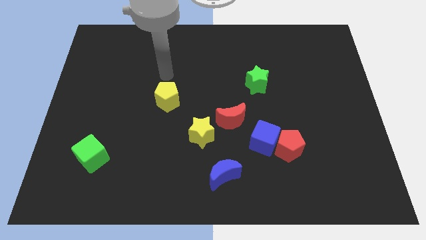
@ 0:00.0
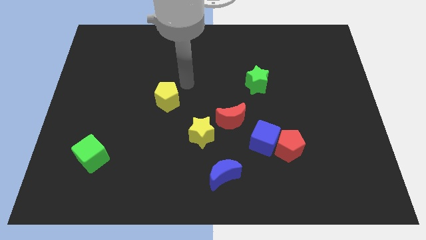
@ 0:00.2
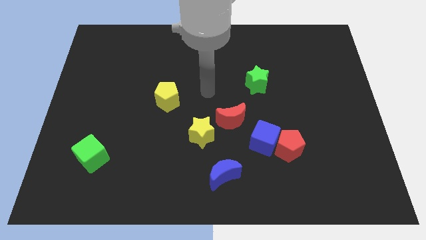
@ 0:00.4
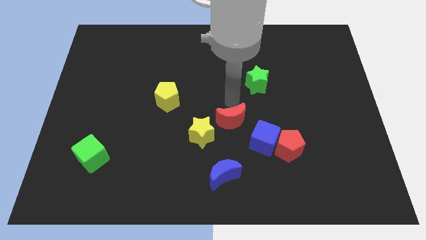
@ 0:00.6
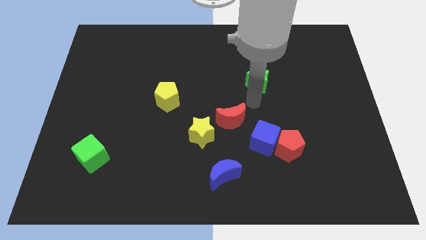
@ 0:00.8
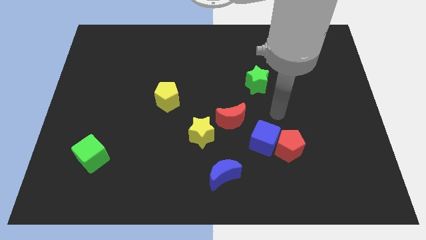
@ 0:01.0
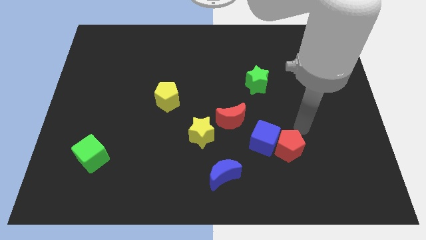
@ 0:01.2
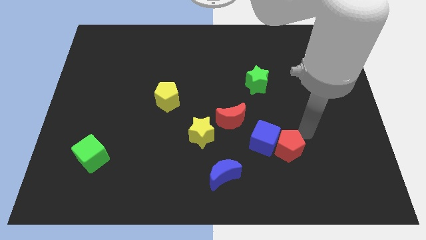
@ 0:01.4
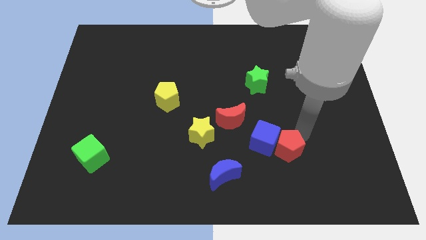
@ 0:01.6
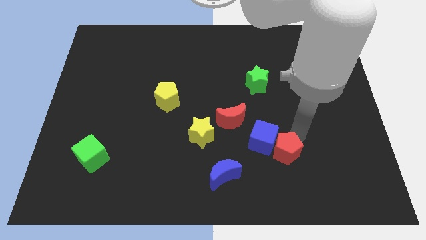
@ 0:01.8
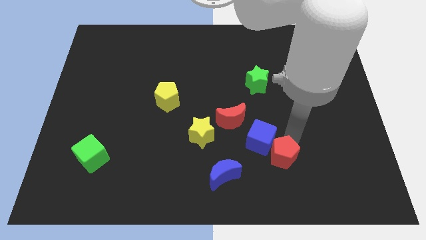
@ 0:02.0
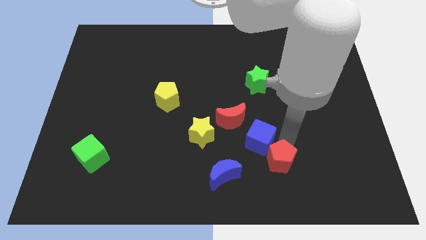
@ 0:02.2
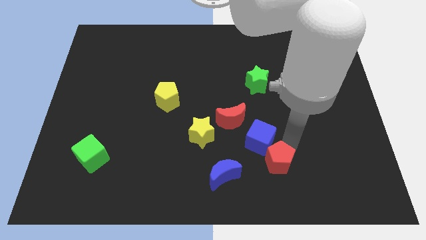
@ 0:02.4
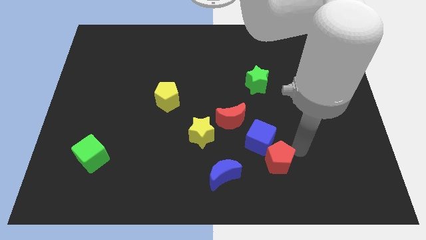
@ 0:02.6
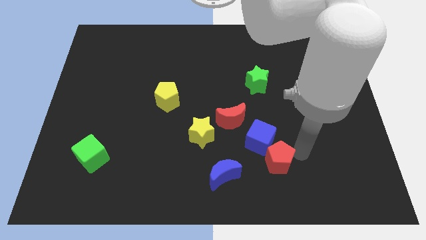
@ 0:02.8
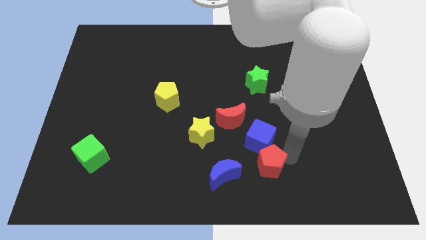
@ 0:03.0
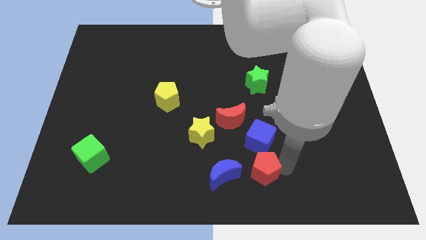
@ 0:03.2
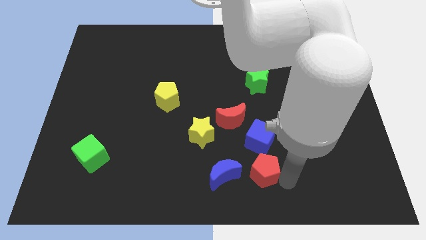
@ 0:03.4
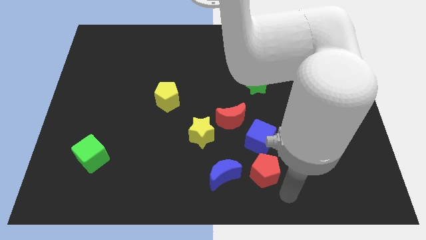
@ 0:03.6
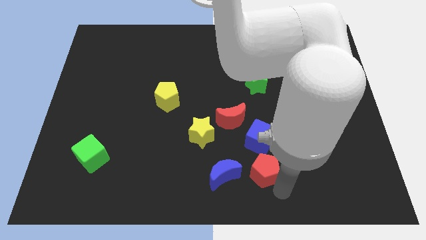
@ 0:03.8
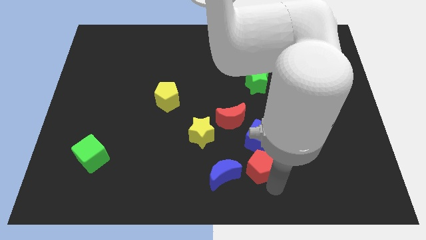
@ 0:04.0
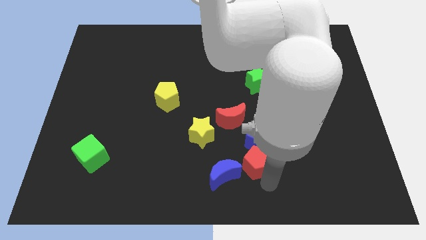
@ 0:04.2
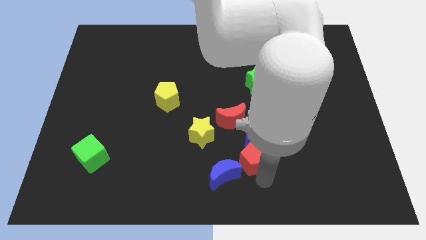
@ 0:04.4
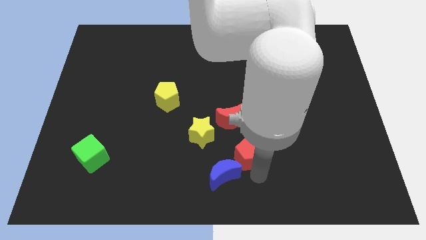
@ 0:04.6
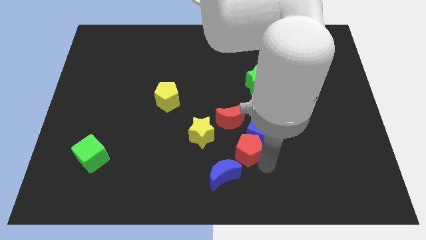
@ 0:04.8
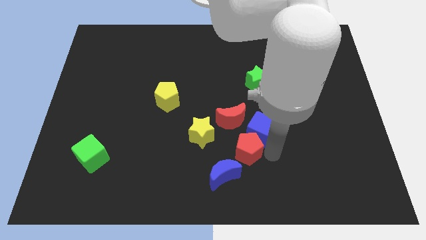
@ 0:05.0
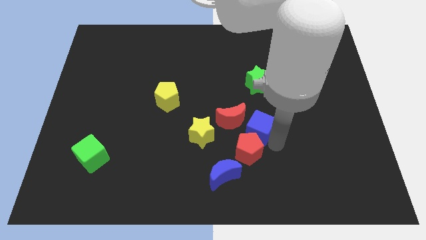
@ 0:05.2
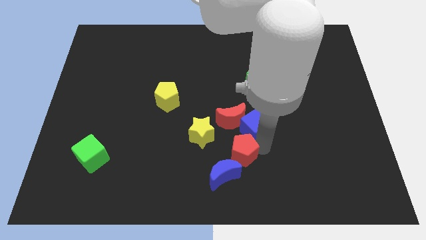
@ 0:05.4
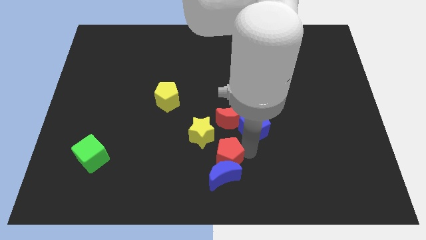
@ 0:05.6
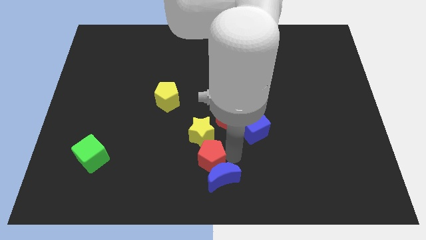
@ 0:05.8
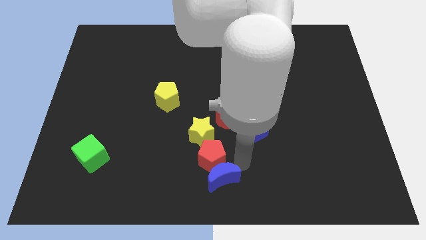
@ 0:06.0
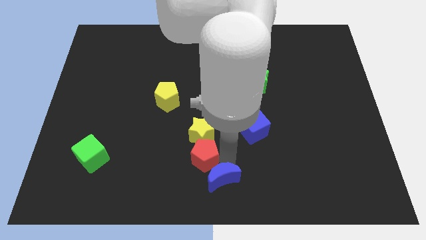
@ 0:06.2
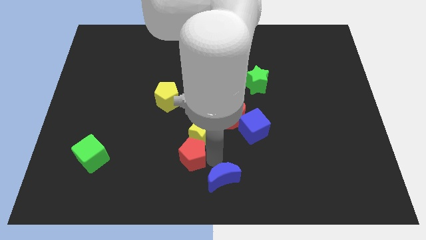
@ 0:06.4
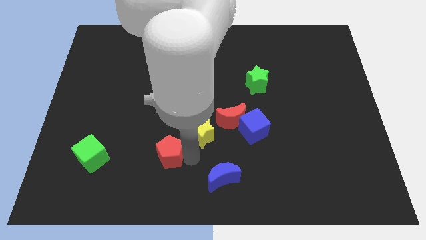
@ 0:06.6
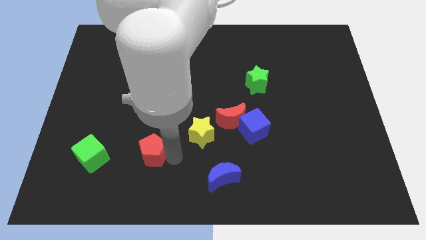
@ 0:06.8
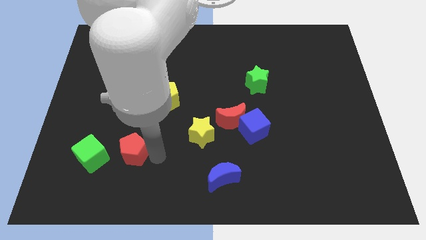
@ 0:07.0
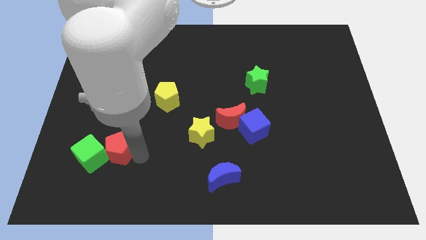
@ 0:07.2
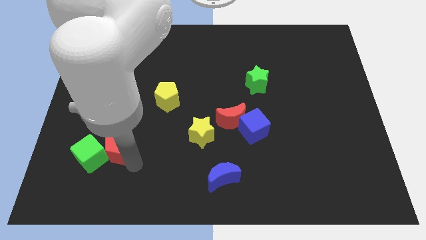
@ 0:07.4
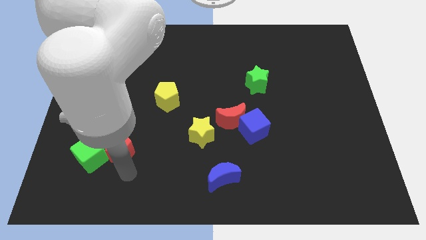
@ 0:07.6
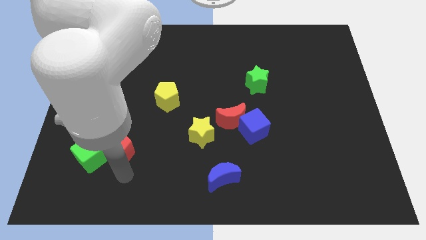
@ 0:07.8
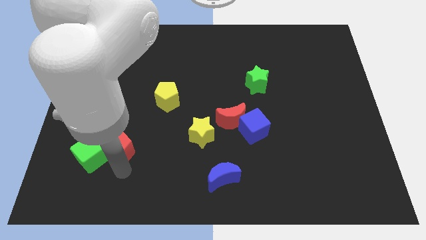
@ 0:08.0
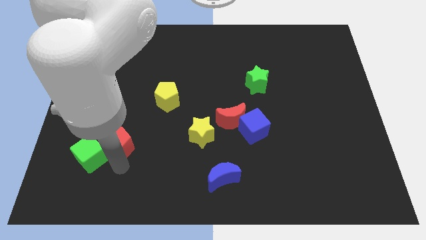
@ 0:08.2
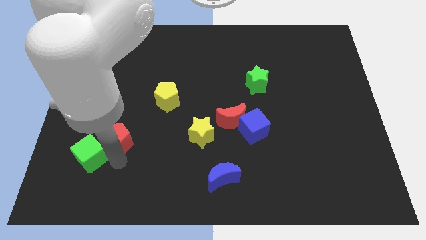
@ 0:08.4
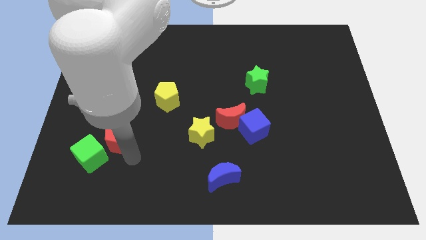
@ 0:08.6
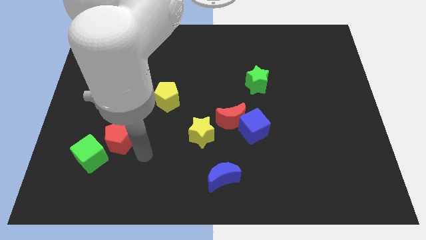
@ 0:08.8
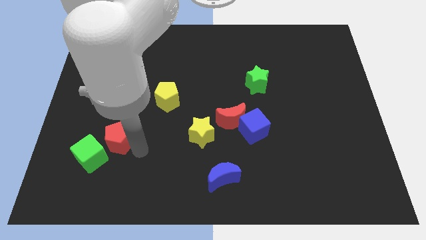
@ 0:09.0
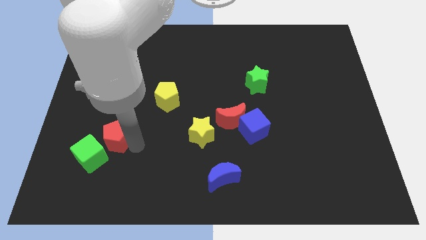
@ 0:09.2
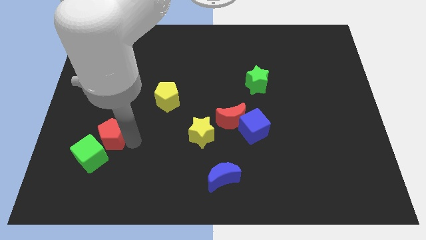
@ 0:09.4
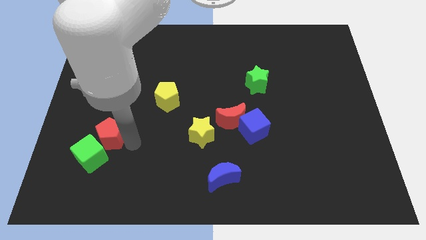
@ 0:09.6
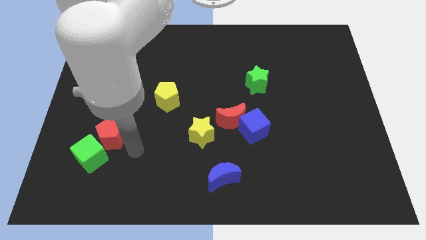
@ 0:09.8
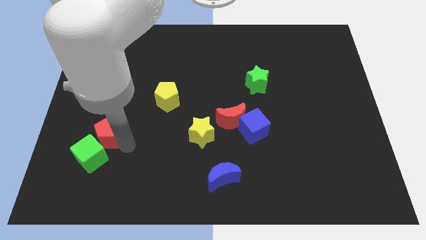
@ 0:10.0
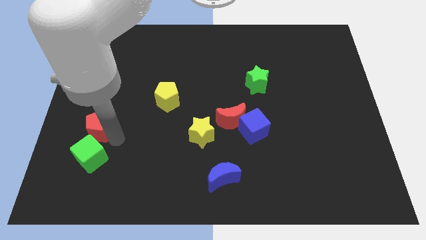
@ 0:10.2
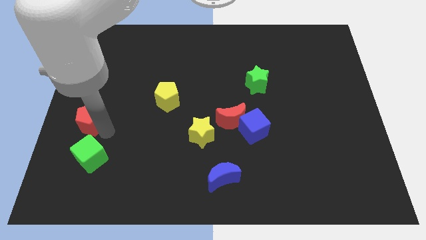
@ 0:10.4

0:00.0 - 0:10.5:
move the red pentagon to the left side

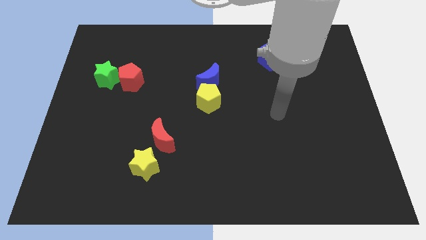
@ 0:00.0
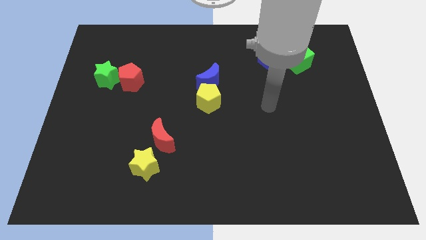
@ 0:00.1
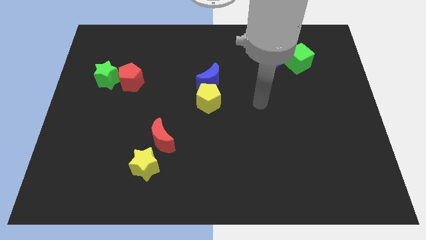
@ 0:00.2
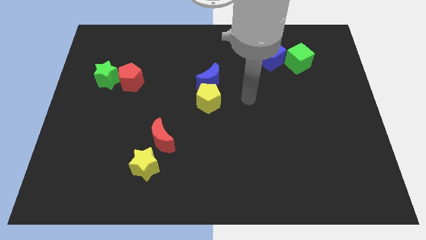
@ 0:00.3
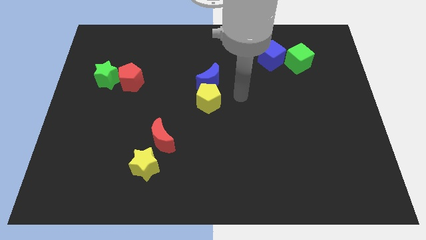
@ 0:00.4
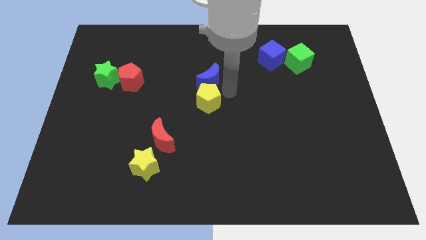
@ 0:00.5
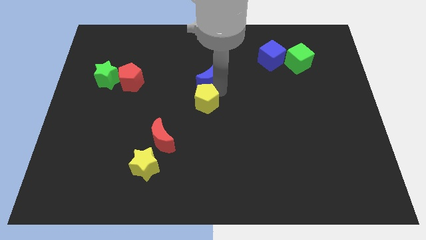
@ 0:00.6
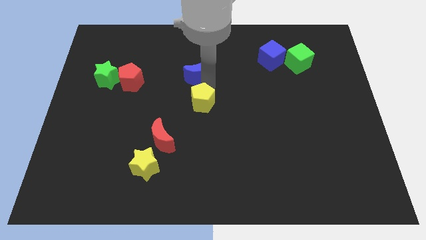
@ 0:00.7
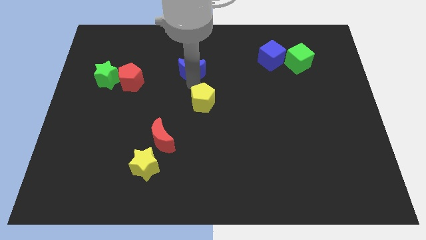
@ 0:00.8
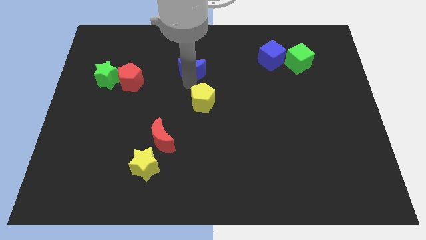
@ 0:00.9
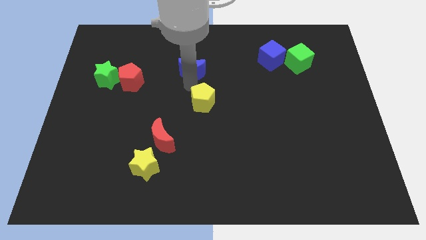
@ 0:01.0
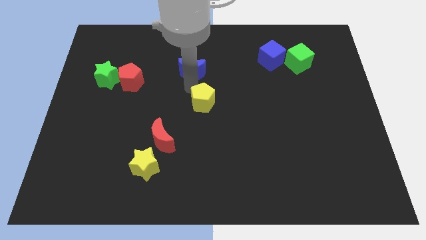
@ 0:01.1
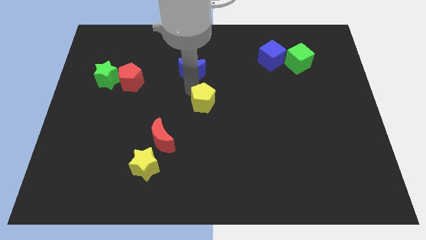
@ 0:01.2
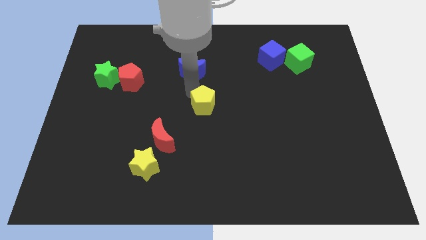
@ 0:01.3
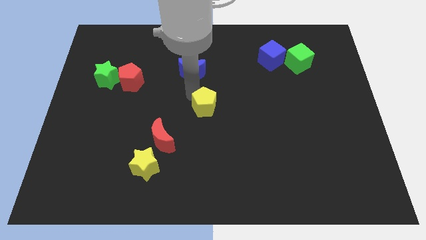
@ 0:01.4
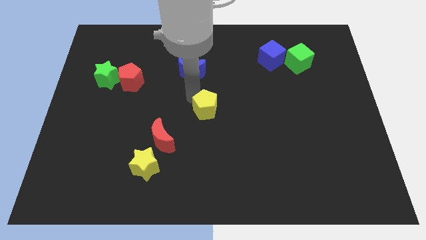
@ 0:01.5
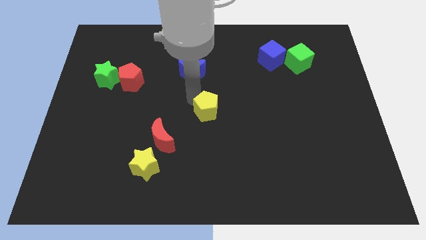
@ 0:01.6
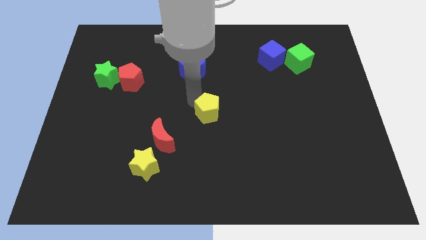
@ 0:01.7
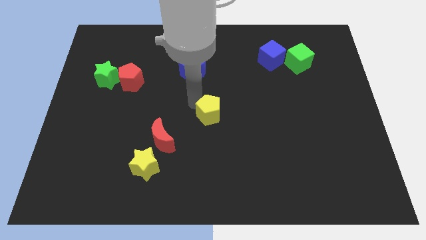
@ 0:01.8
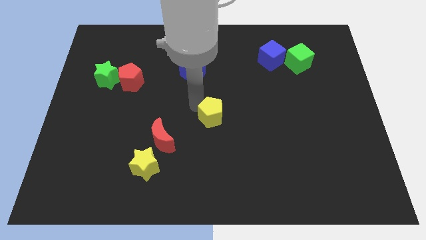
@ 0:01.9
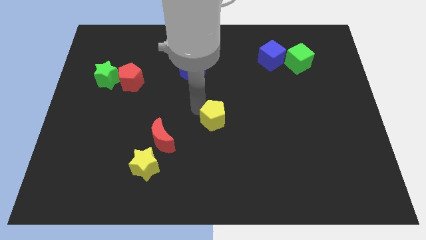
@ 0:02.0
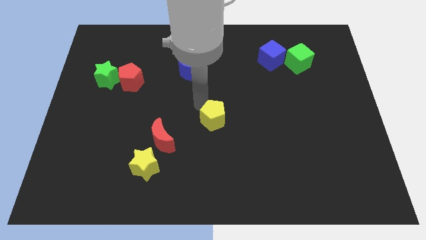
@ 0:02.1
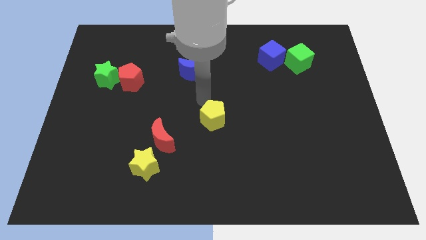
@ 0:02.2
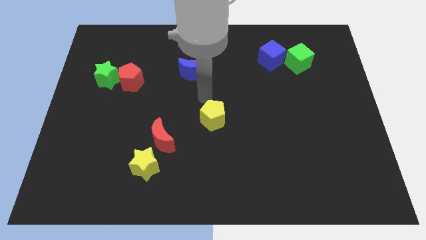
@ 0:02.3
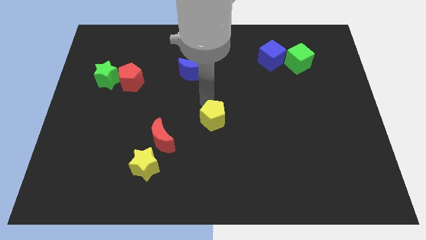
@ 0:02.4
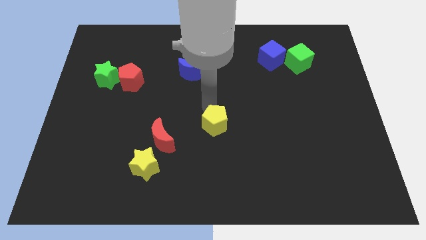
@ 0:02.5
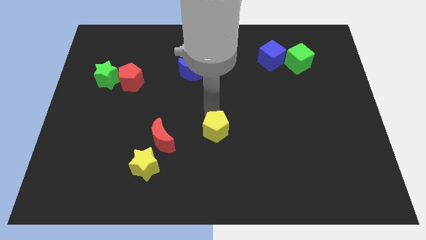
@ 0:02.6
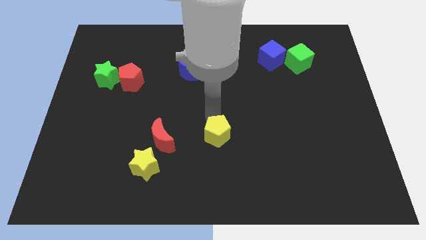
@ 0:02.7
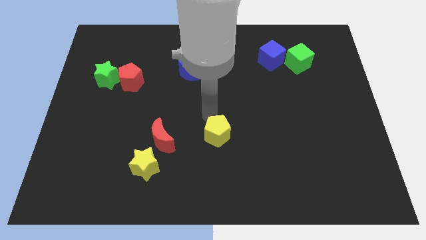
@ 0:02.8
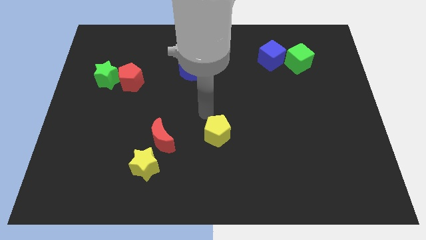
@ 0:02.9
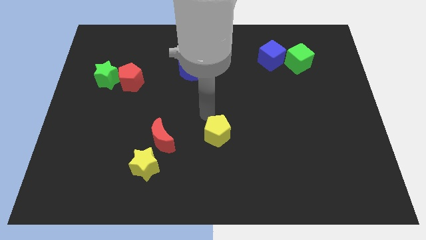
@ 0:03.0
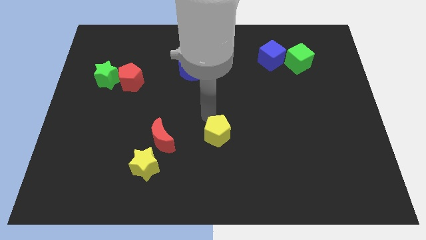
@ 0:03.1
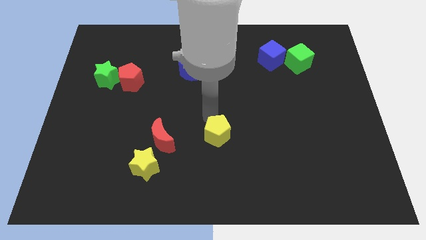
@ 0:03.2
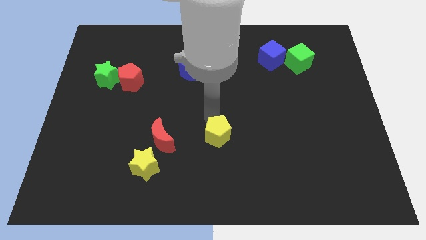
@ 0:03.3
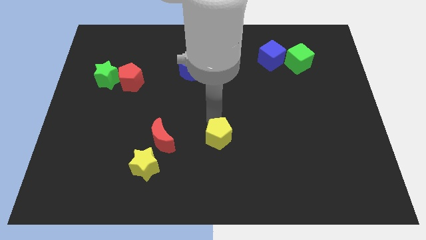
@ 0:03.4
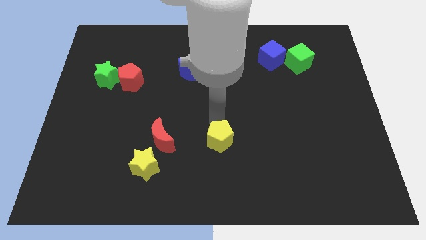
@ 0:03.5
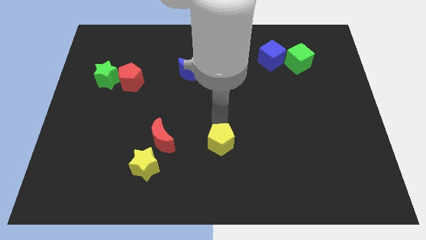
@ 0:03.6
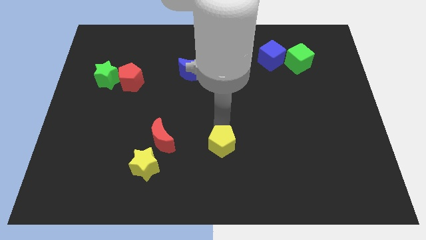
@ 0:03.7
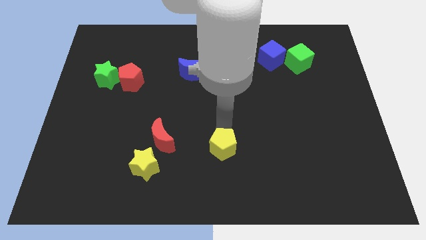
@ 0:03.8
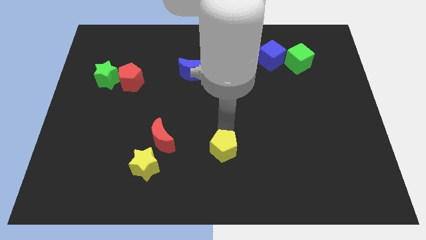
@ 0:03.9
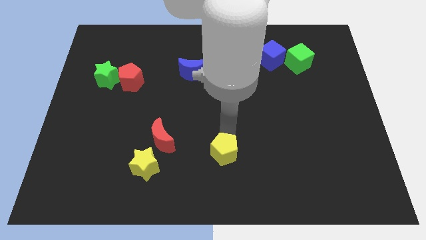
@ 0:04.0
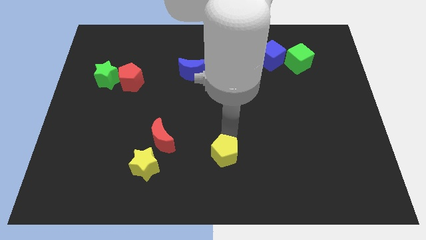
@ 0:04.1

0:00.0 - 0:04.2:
move the yellow pentagon to the bottom side
